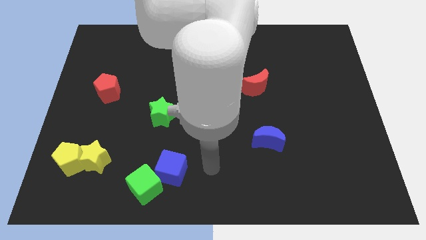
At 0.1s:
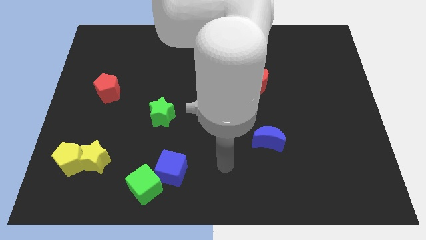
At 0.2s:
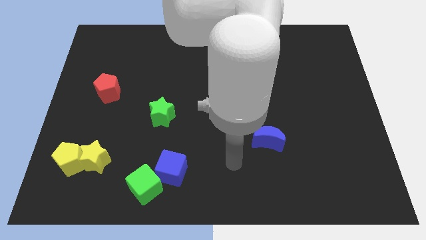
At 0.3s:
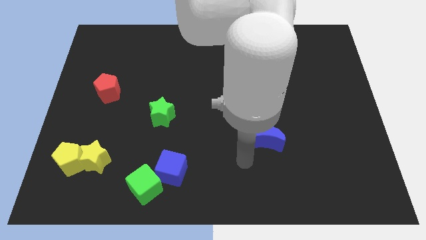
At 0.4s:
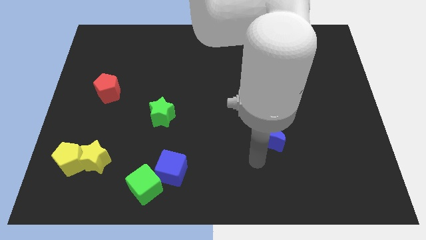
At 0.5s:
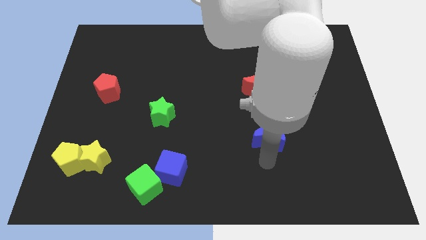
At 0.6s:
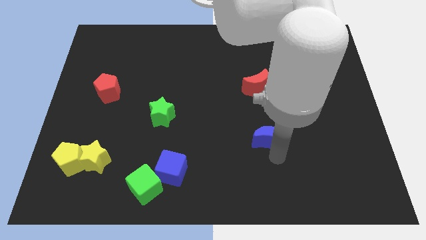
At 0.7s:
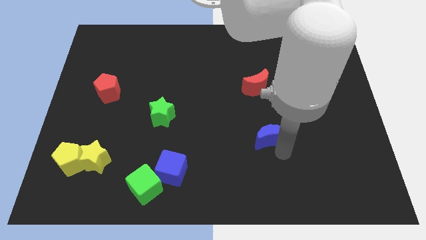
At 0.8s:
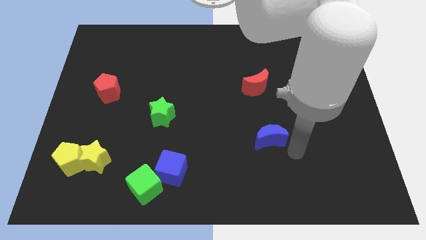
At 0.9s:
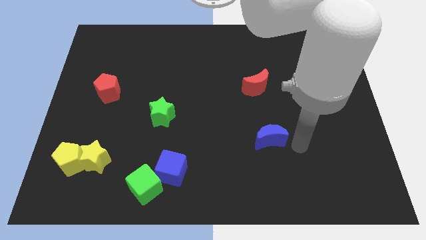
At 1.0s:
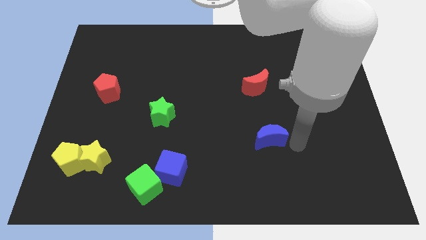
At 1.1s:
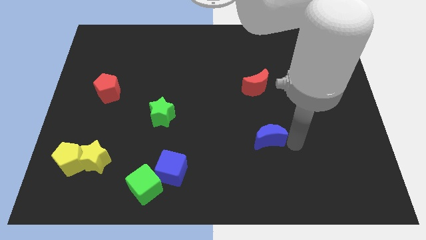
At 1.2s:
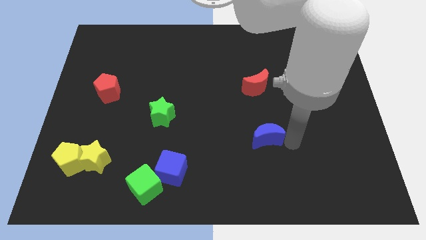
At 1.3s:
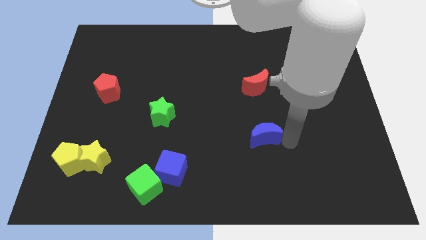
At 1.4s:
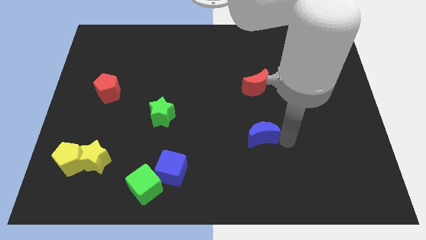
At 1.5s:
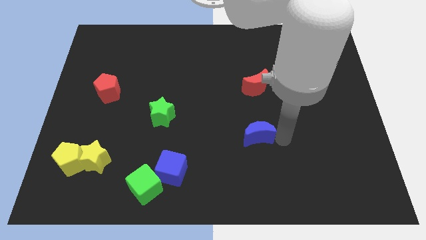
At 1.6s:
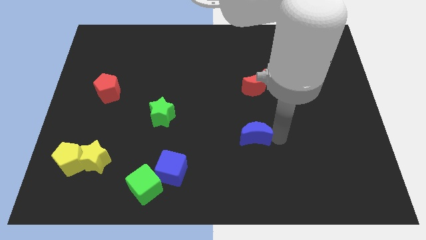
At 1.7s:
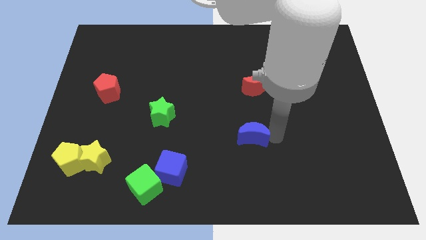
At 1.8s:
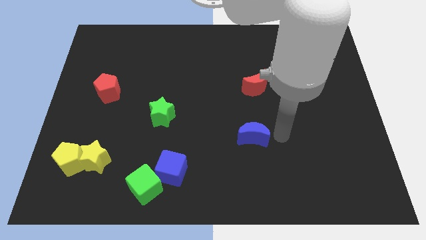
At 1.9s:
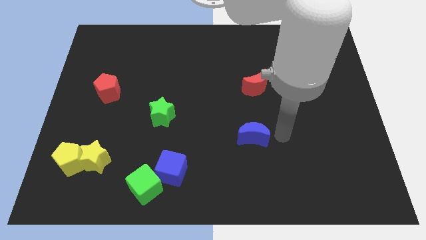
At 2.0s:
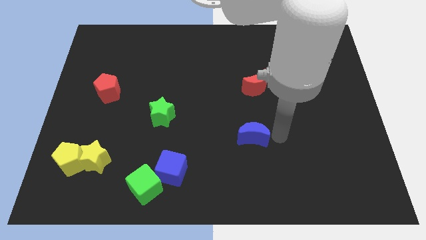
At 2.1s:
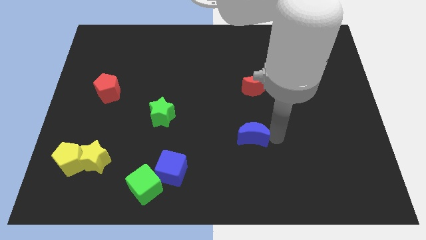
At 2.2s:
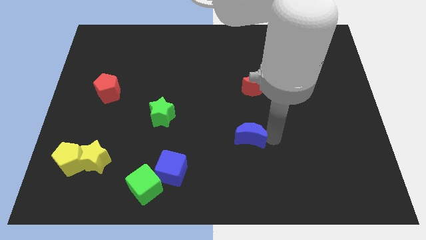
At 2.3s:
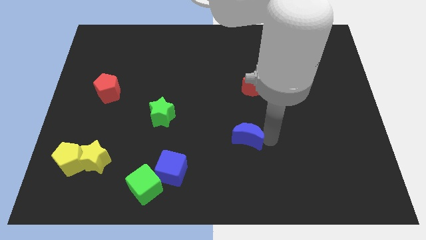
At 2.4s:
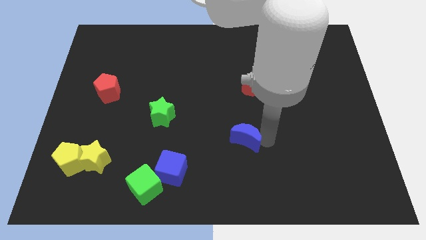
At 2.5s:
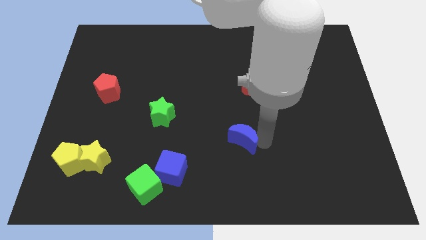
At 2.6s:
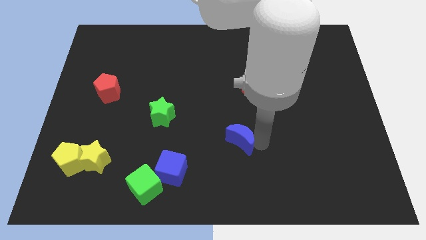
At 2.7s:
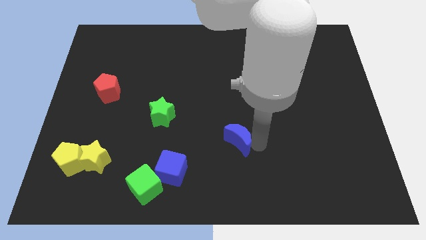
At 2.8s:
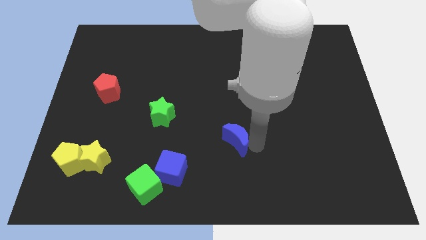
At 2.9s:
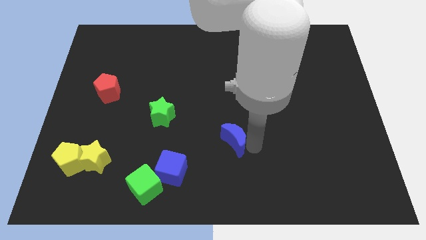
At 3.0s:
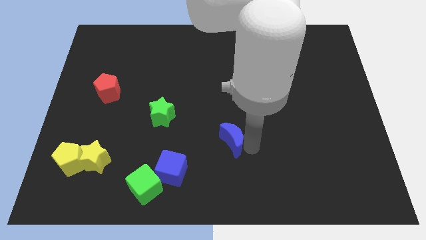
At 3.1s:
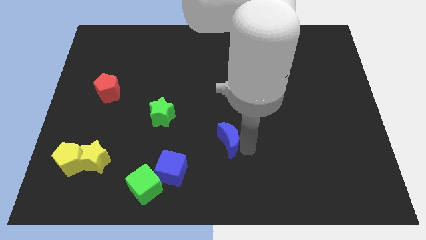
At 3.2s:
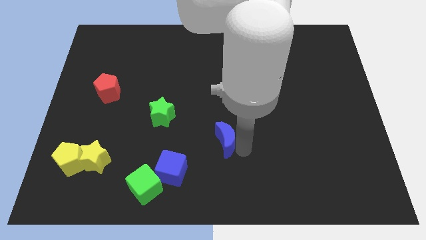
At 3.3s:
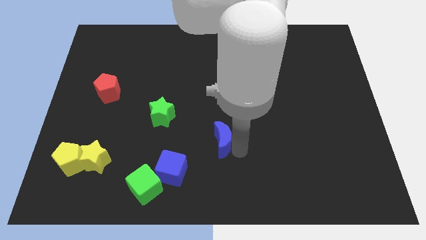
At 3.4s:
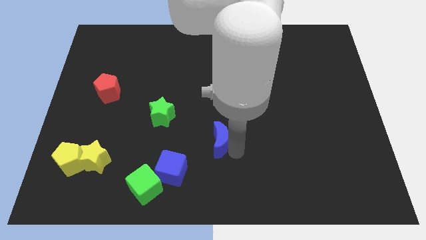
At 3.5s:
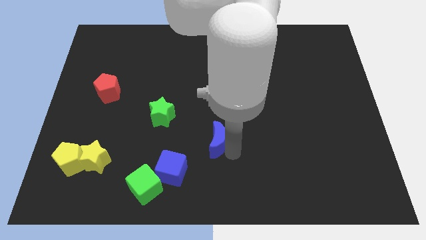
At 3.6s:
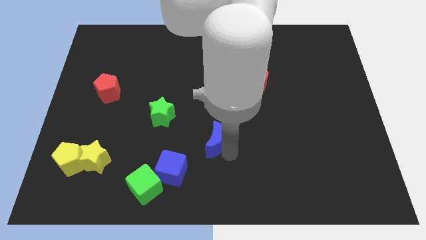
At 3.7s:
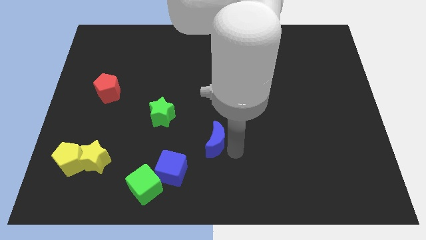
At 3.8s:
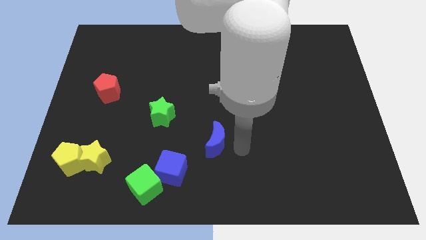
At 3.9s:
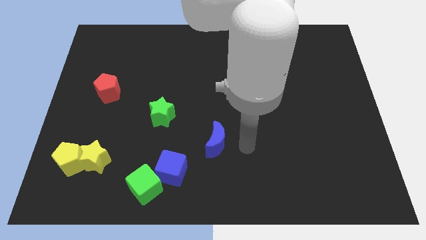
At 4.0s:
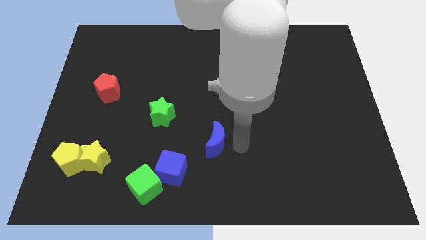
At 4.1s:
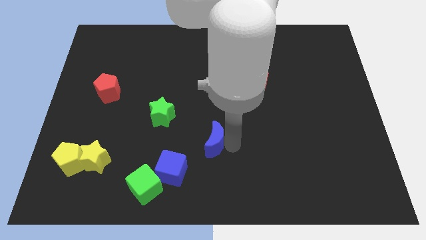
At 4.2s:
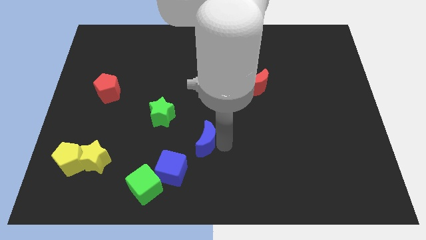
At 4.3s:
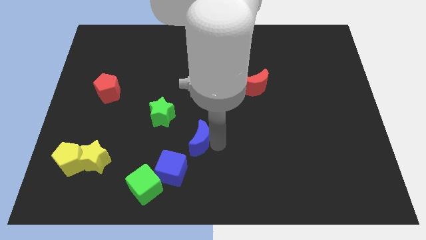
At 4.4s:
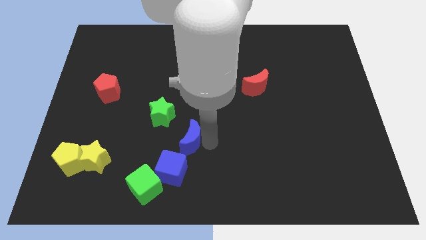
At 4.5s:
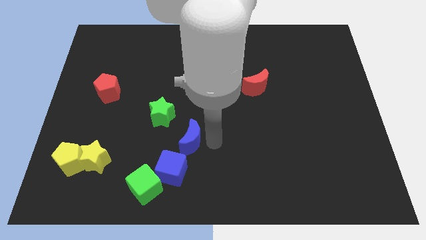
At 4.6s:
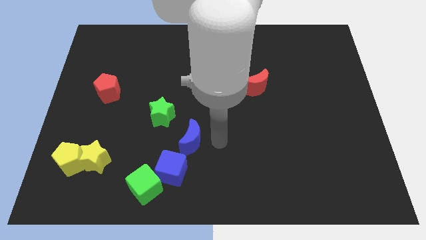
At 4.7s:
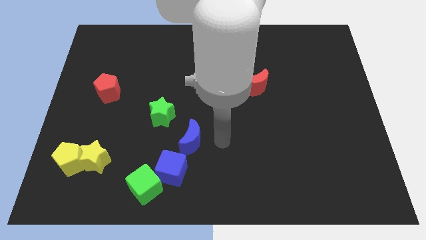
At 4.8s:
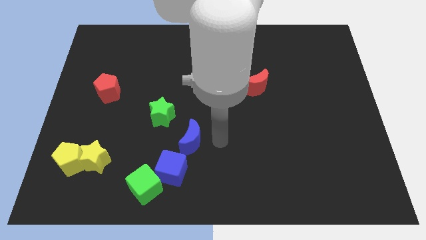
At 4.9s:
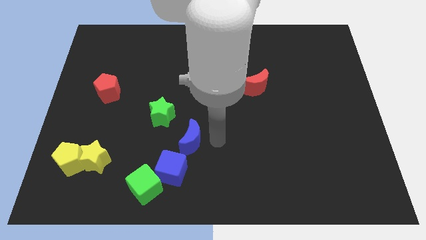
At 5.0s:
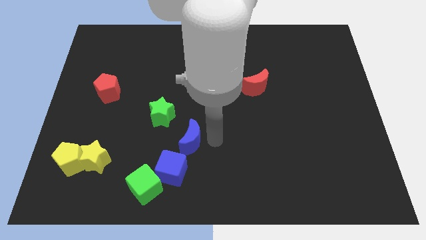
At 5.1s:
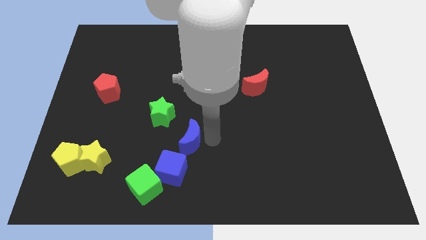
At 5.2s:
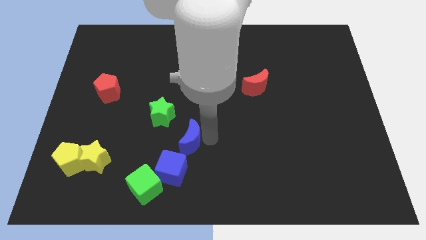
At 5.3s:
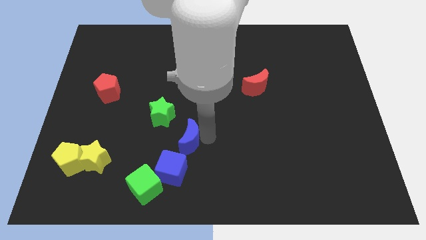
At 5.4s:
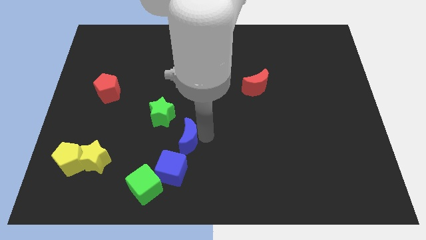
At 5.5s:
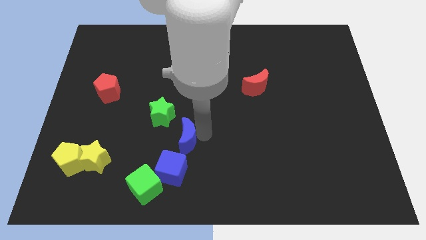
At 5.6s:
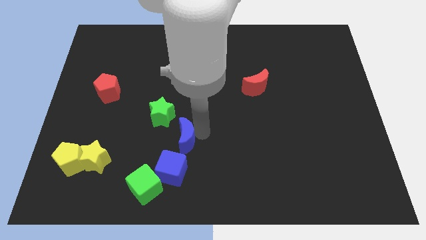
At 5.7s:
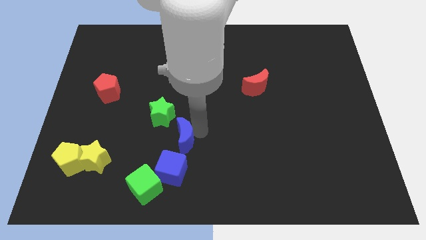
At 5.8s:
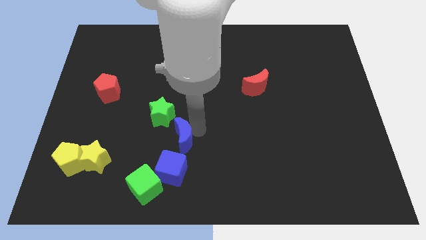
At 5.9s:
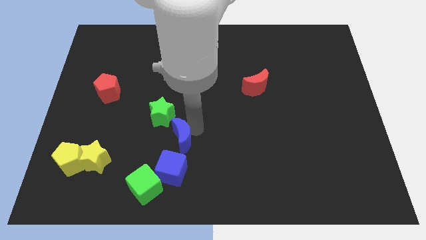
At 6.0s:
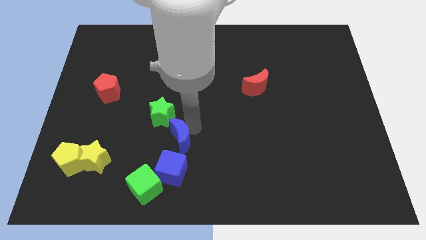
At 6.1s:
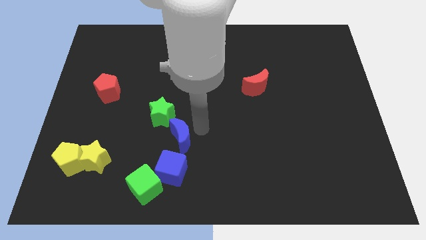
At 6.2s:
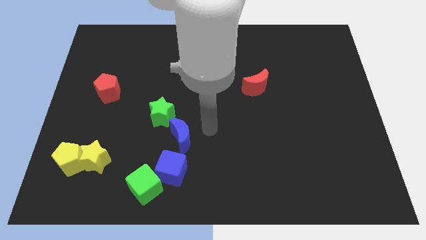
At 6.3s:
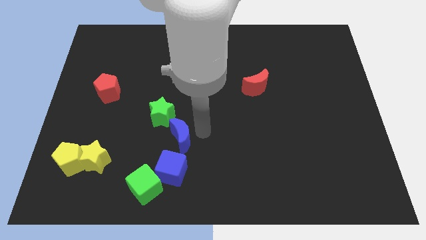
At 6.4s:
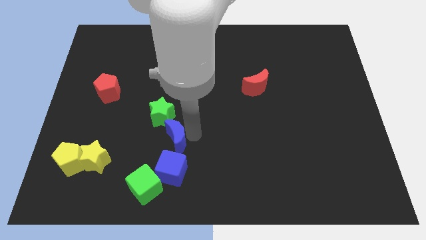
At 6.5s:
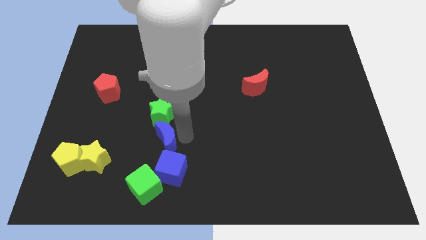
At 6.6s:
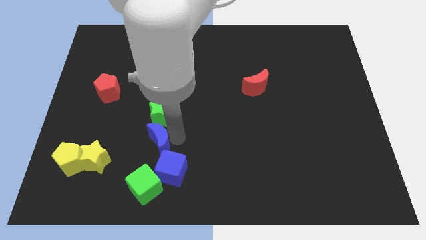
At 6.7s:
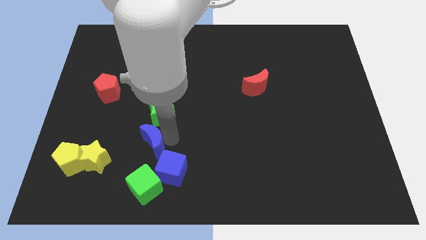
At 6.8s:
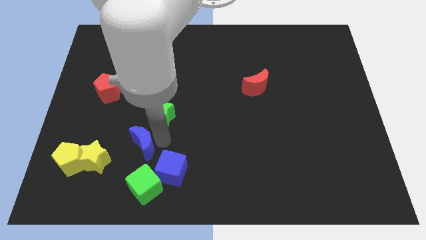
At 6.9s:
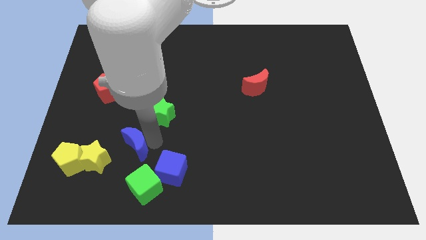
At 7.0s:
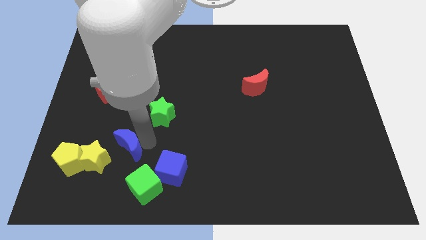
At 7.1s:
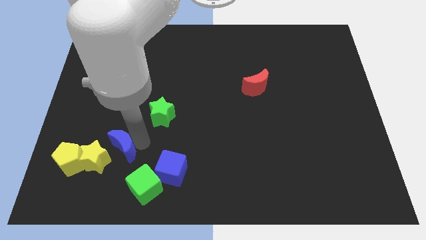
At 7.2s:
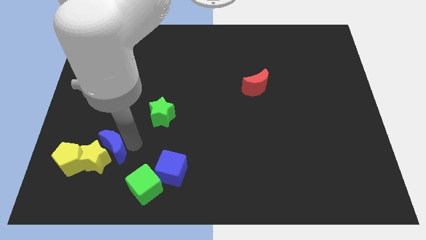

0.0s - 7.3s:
put the blue moon close to the yellow star
